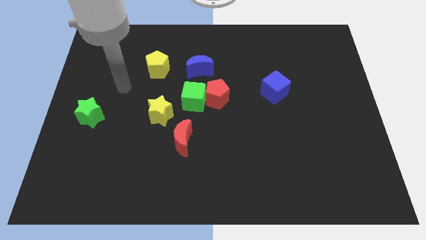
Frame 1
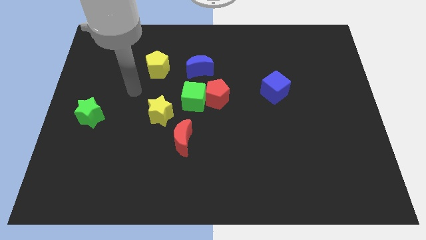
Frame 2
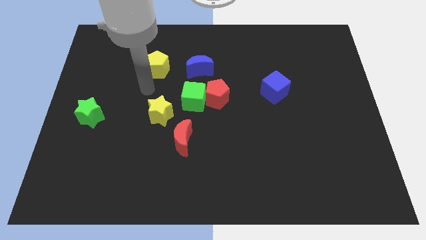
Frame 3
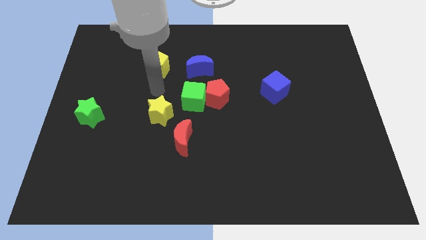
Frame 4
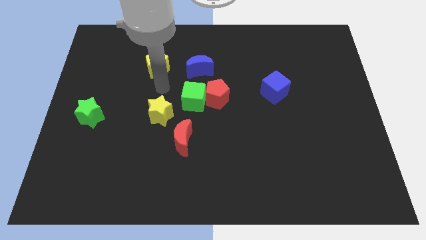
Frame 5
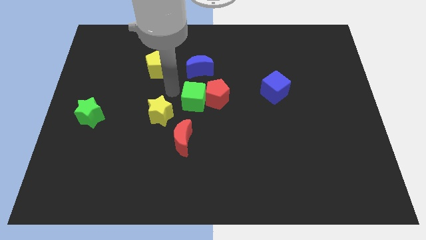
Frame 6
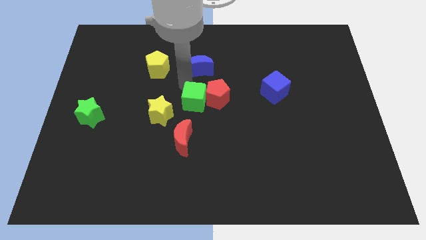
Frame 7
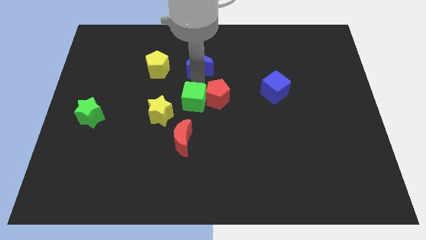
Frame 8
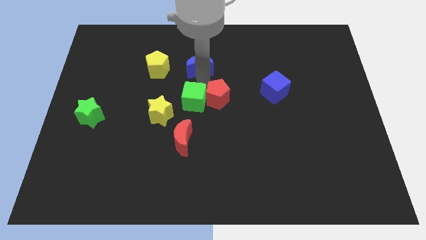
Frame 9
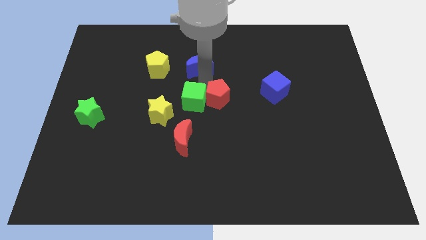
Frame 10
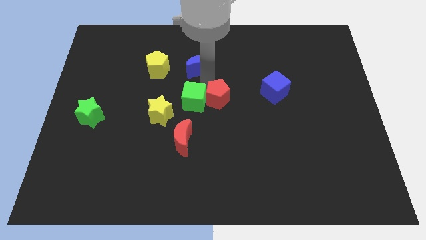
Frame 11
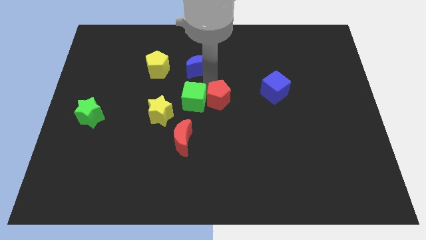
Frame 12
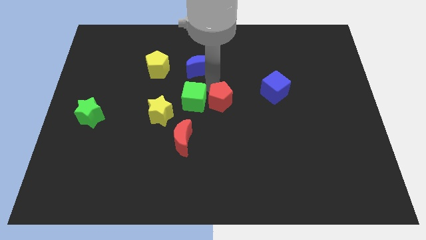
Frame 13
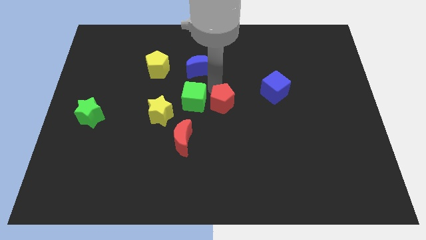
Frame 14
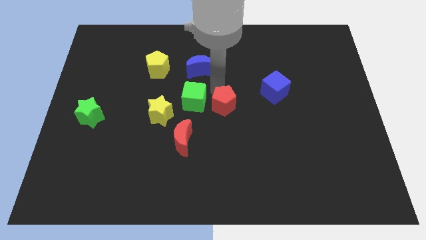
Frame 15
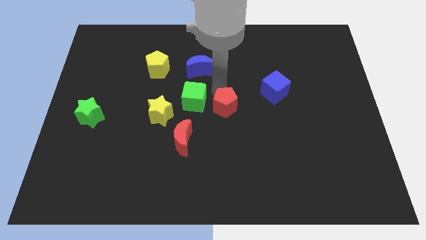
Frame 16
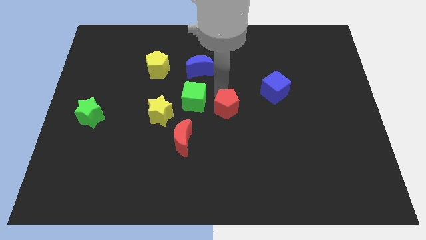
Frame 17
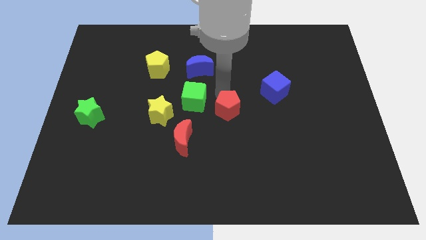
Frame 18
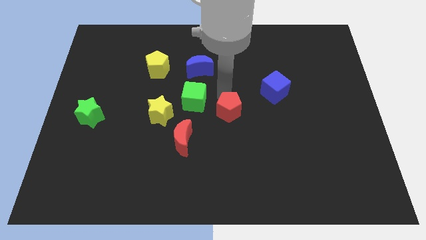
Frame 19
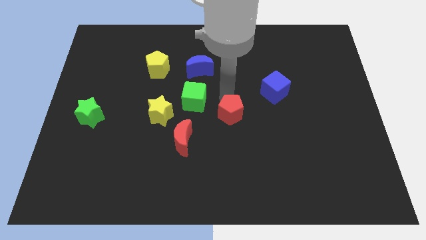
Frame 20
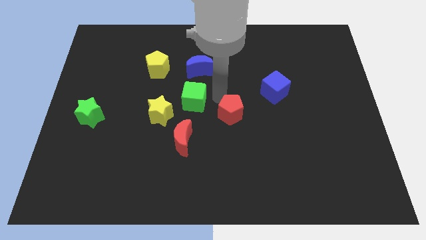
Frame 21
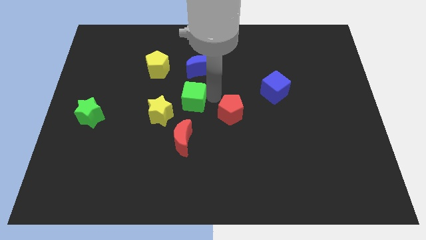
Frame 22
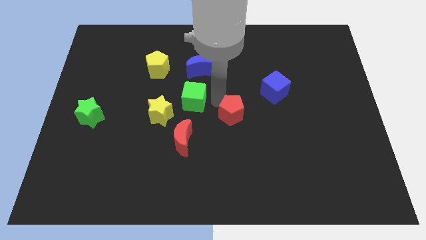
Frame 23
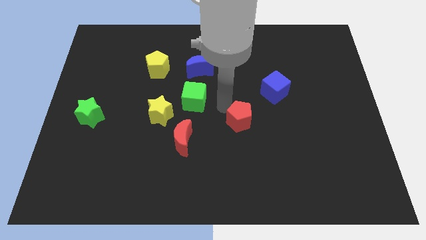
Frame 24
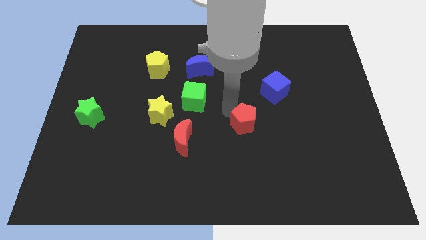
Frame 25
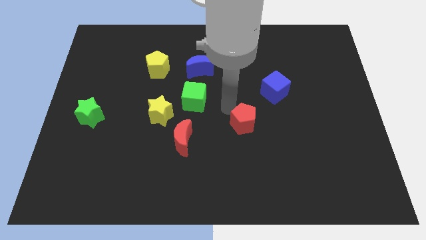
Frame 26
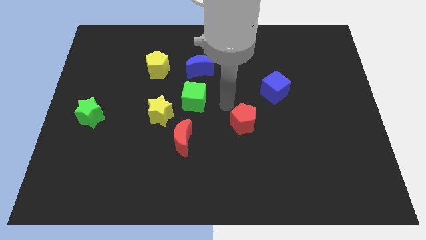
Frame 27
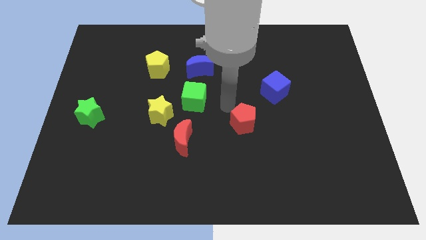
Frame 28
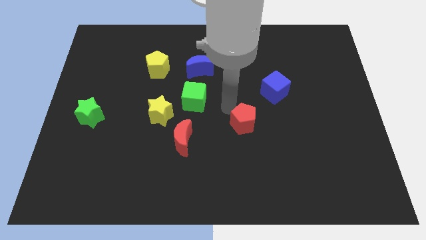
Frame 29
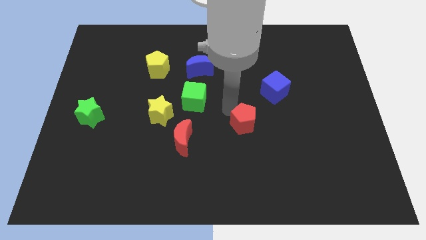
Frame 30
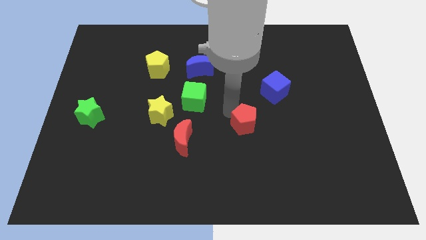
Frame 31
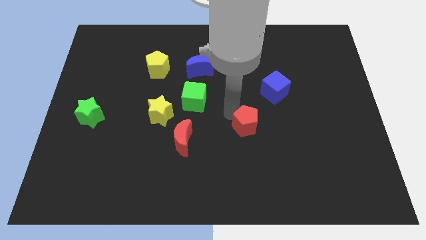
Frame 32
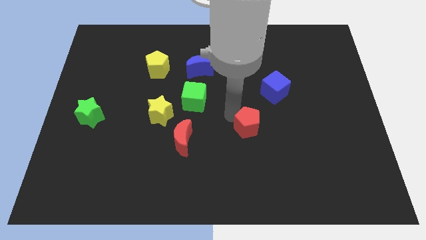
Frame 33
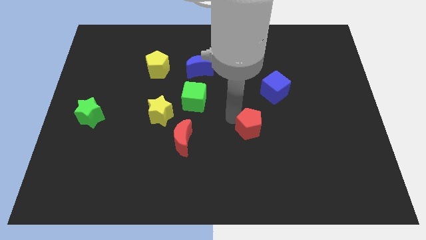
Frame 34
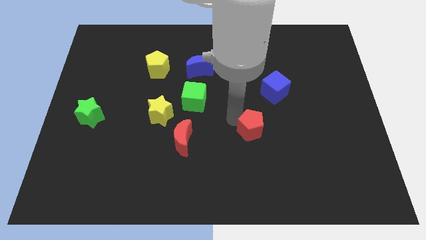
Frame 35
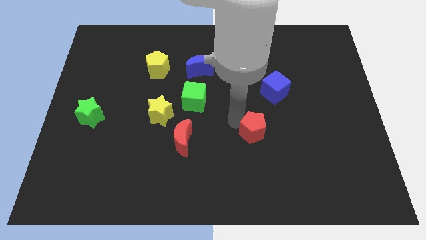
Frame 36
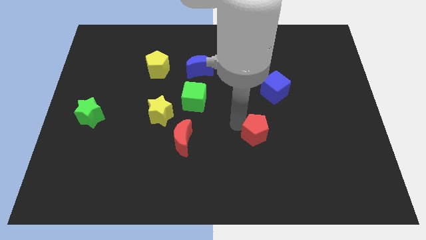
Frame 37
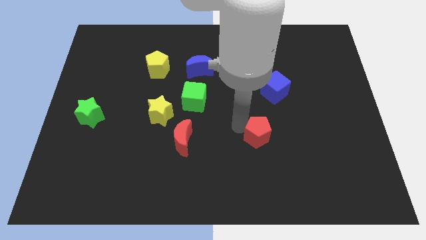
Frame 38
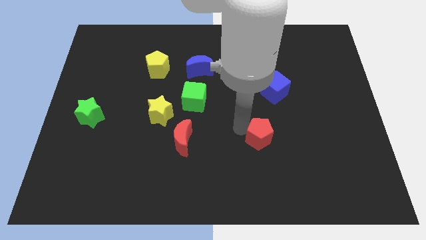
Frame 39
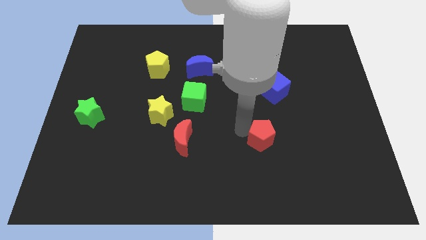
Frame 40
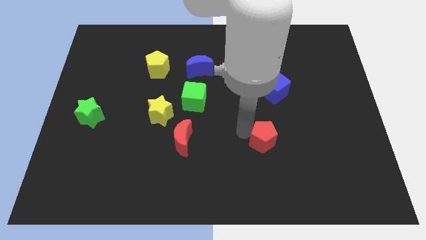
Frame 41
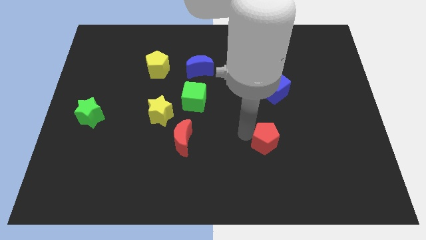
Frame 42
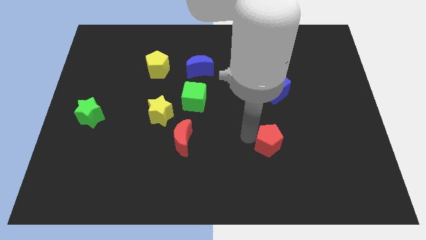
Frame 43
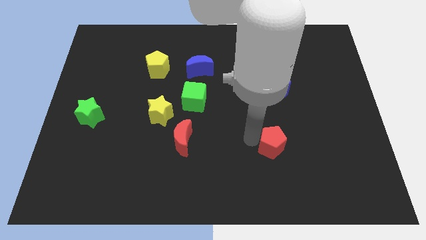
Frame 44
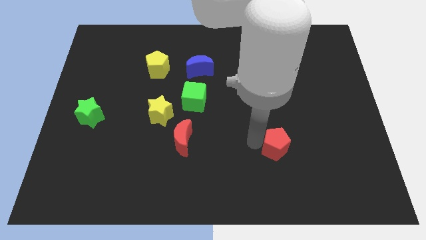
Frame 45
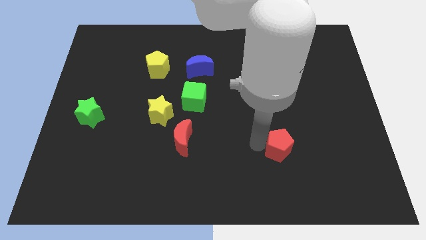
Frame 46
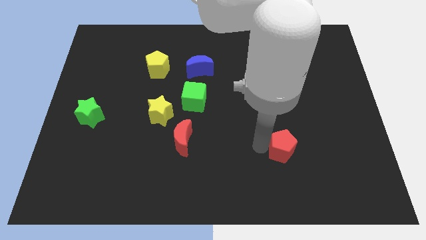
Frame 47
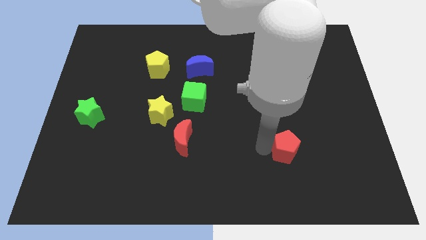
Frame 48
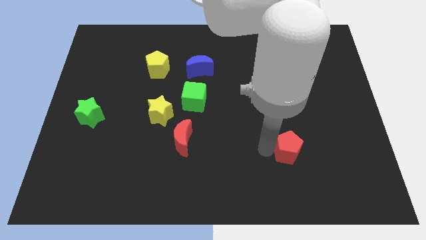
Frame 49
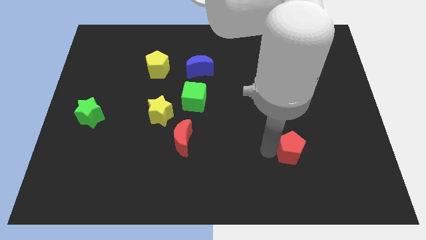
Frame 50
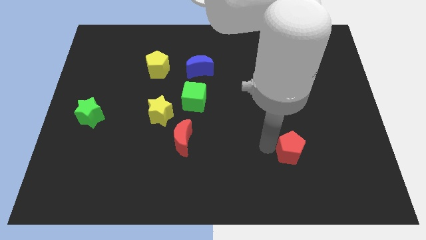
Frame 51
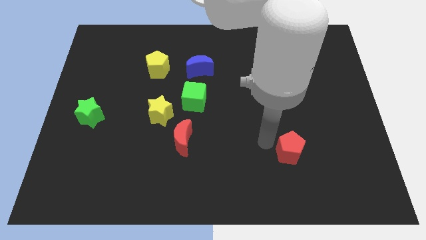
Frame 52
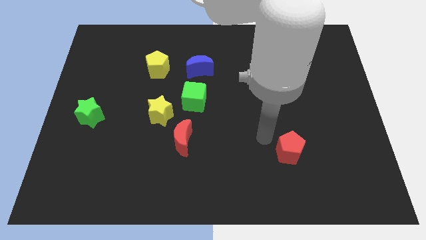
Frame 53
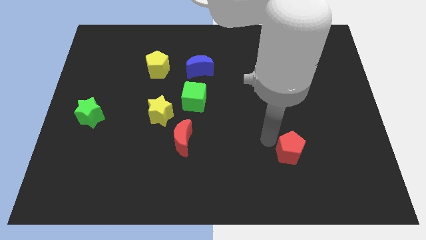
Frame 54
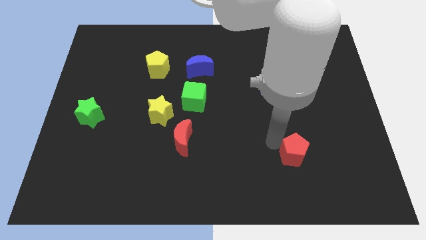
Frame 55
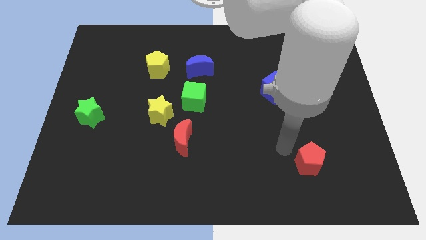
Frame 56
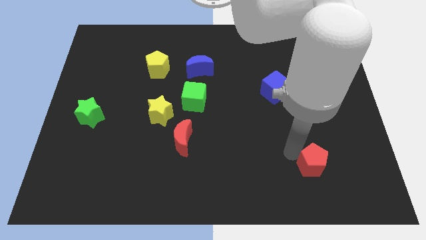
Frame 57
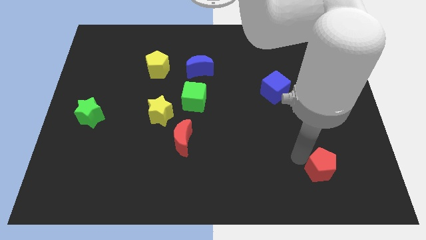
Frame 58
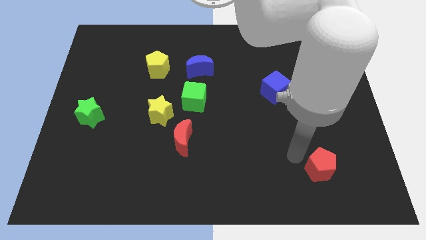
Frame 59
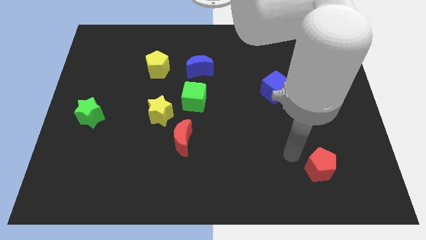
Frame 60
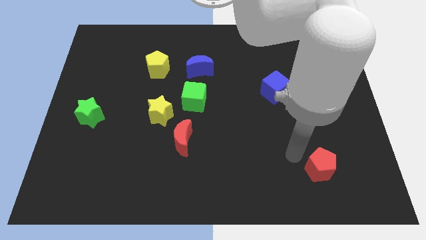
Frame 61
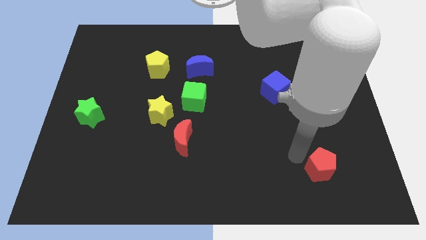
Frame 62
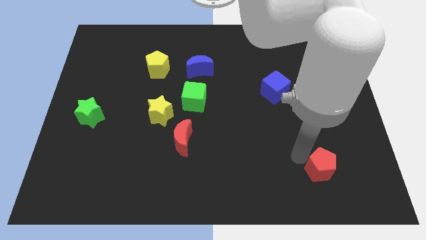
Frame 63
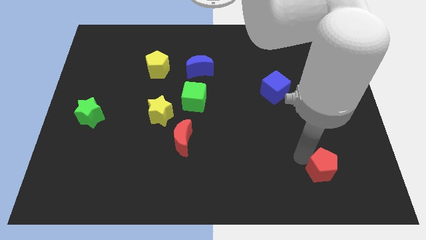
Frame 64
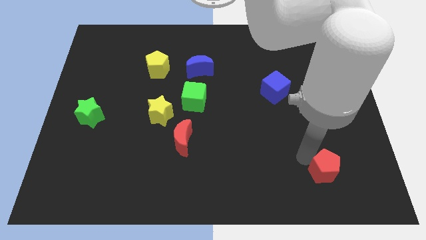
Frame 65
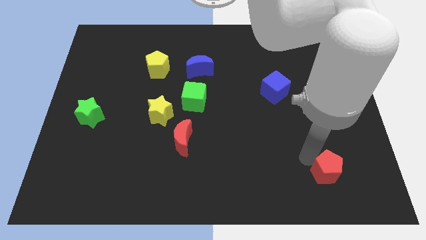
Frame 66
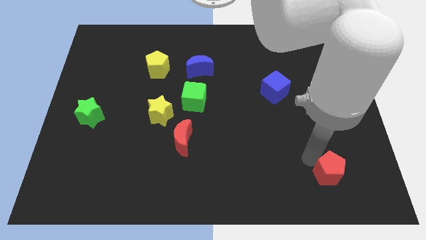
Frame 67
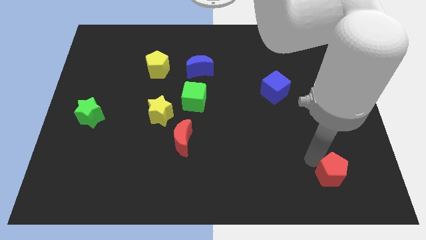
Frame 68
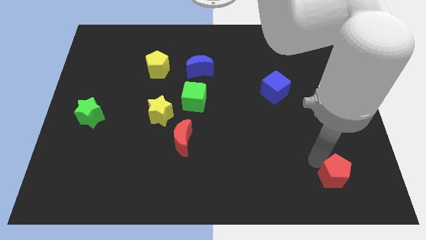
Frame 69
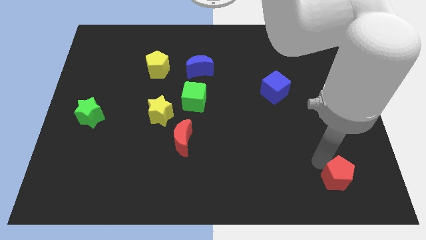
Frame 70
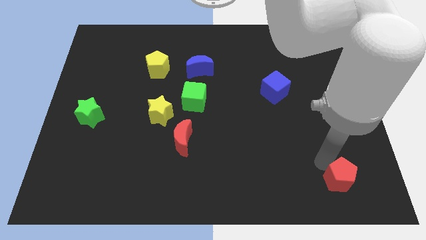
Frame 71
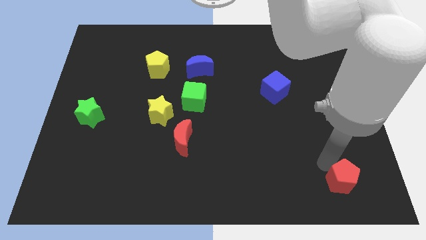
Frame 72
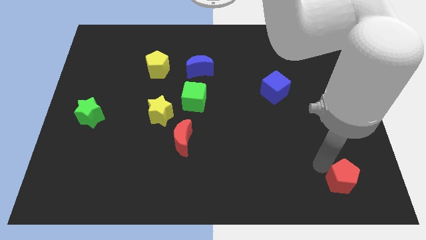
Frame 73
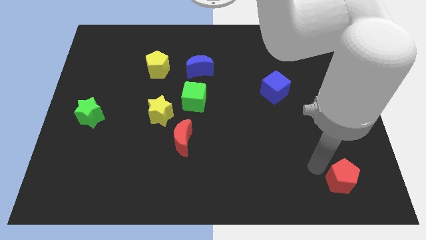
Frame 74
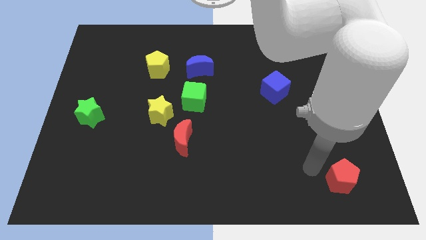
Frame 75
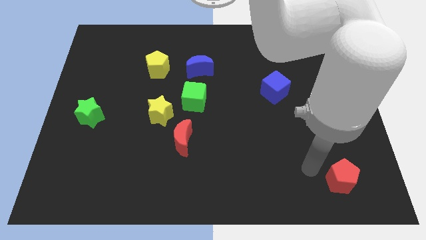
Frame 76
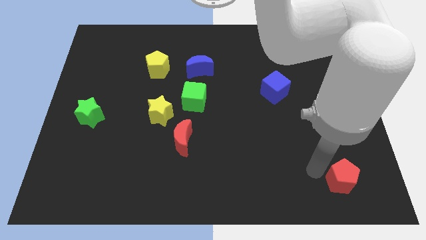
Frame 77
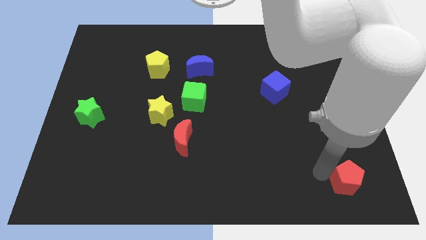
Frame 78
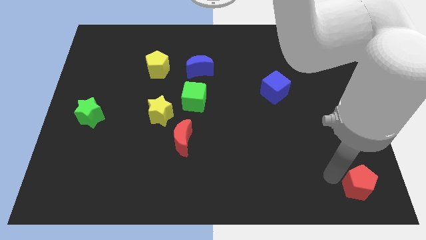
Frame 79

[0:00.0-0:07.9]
push the red pentagon to the bottom right of the board
